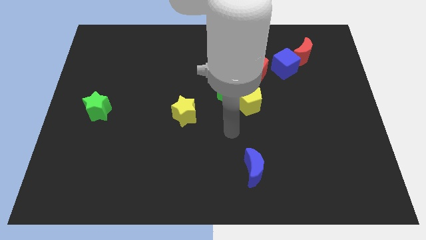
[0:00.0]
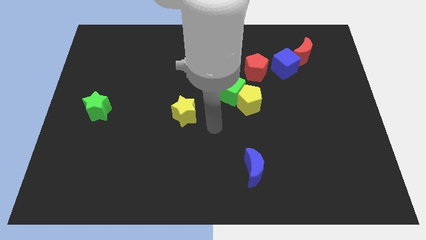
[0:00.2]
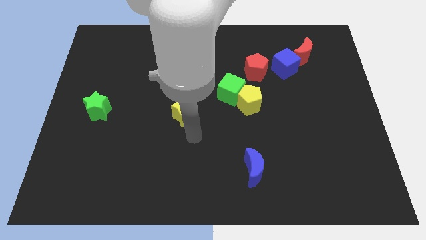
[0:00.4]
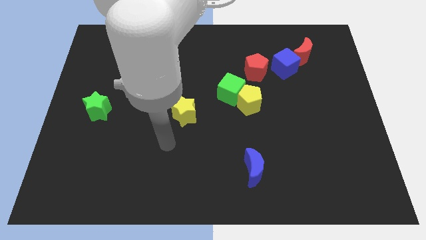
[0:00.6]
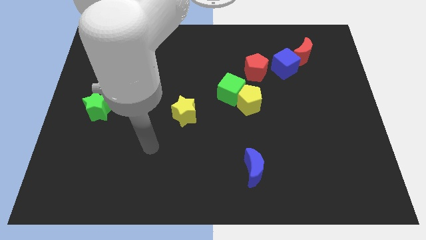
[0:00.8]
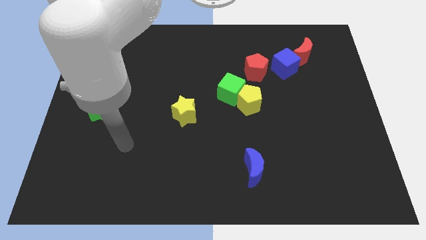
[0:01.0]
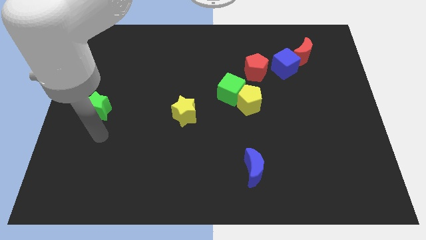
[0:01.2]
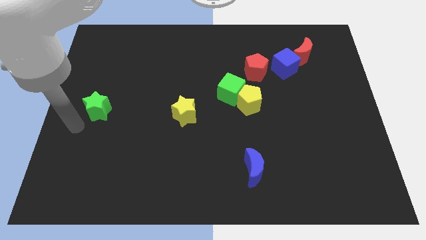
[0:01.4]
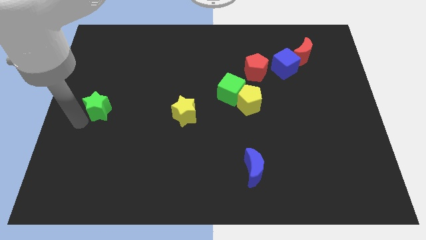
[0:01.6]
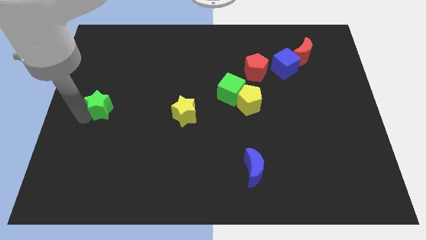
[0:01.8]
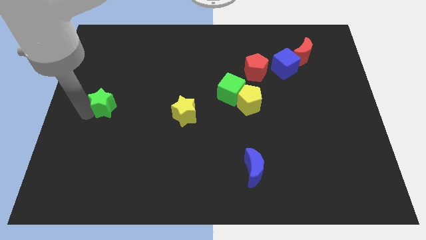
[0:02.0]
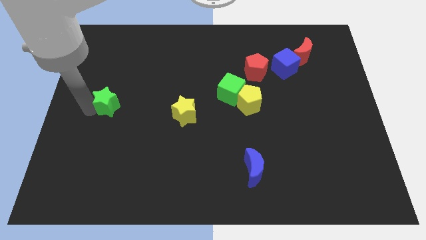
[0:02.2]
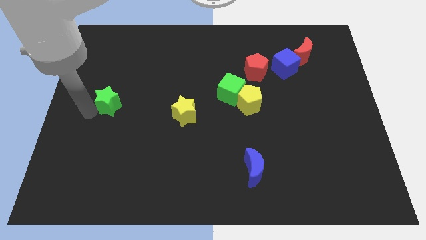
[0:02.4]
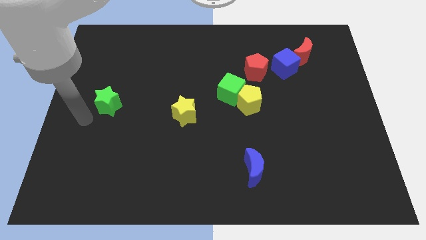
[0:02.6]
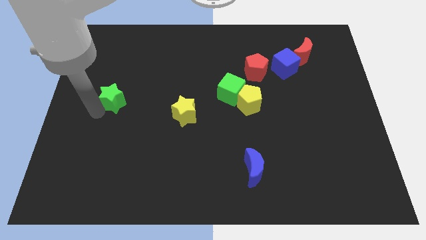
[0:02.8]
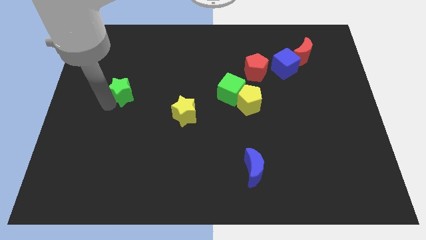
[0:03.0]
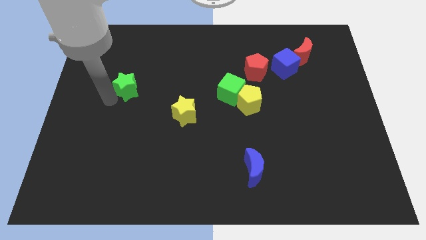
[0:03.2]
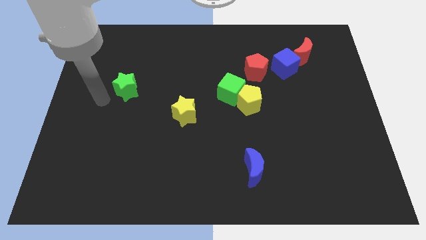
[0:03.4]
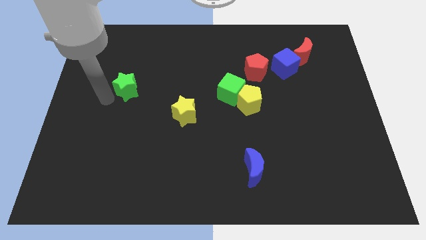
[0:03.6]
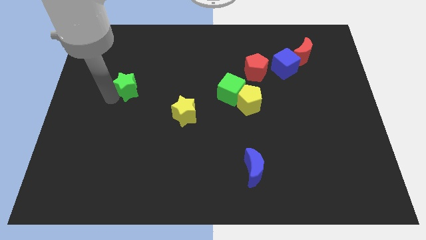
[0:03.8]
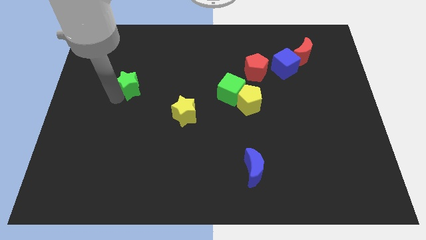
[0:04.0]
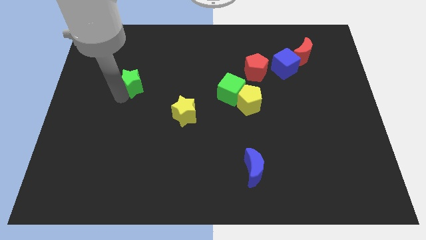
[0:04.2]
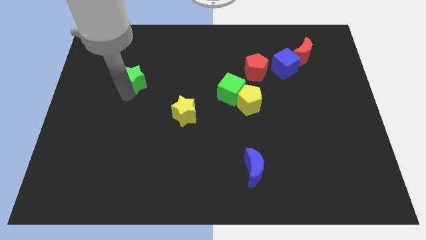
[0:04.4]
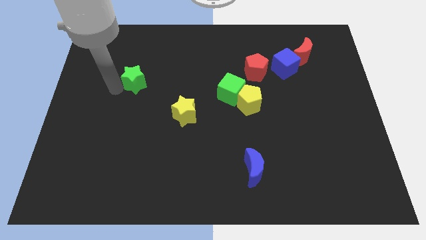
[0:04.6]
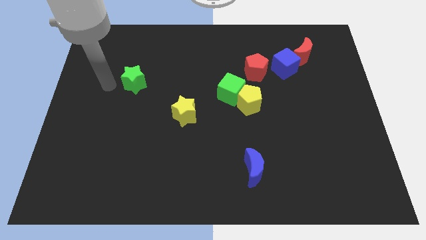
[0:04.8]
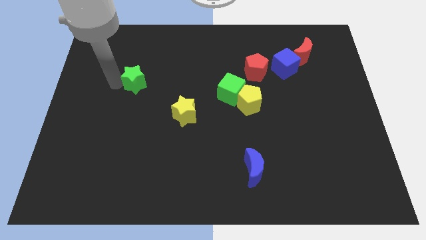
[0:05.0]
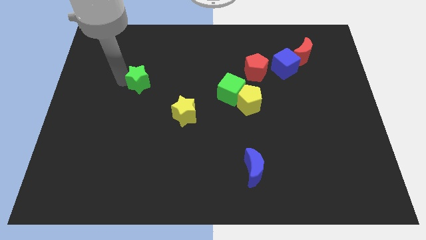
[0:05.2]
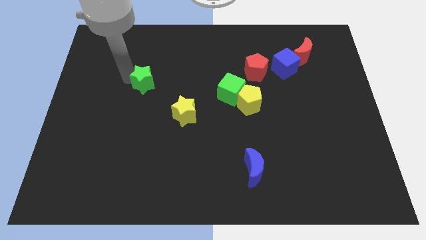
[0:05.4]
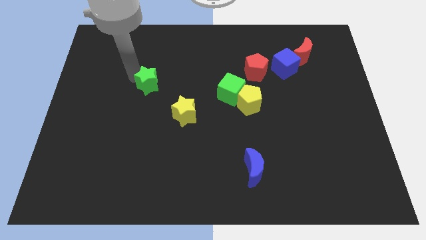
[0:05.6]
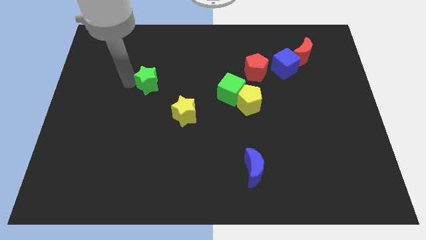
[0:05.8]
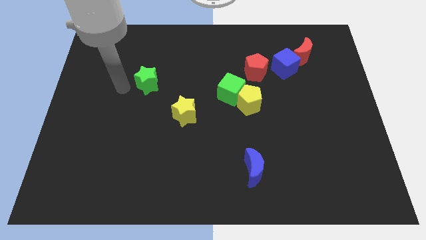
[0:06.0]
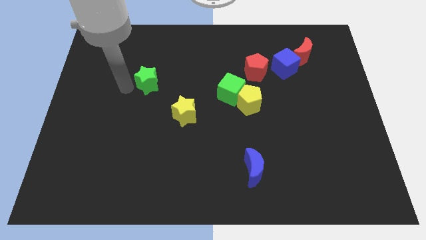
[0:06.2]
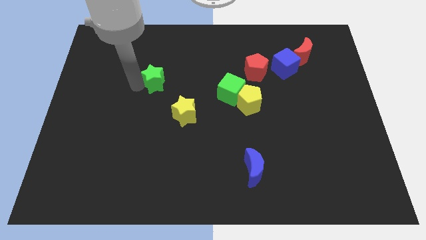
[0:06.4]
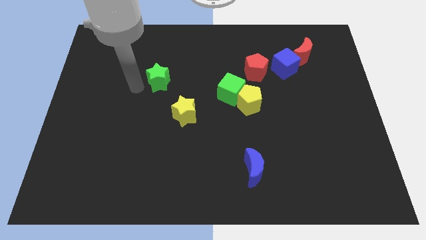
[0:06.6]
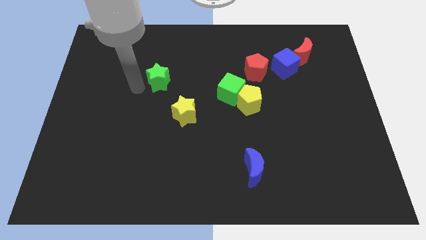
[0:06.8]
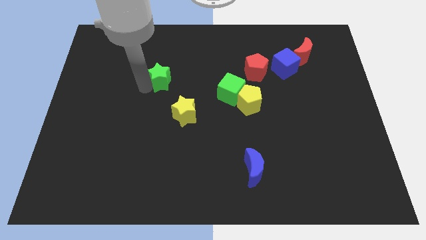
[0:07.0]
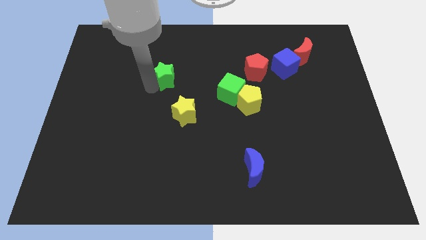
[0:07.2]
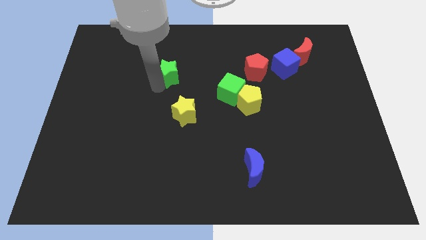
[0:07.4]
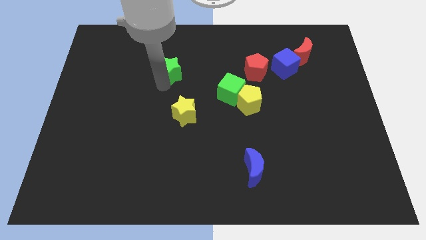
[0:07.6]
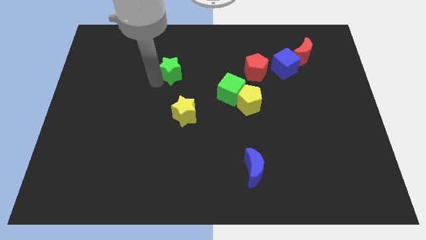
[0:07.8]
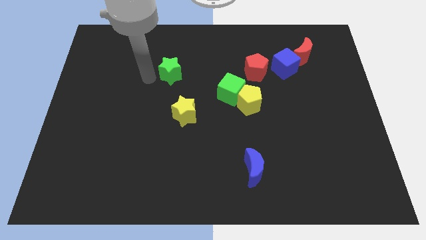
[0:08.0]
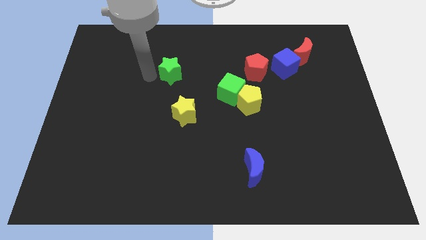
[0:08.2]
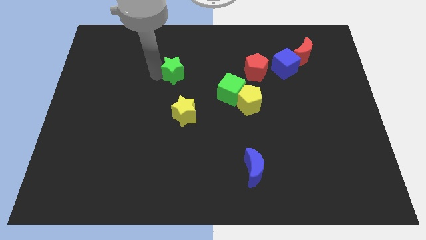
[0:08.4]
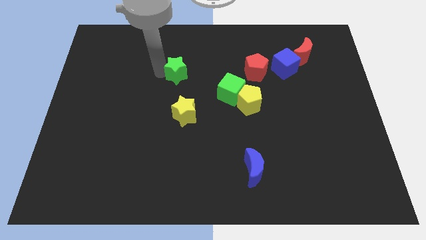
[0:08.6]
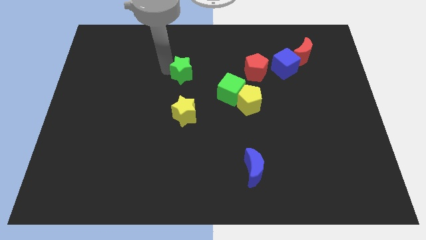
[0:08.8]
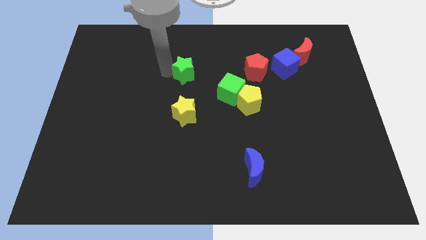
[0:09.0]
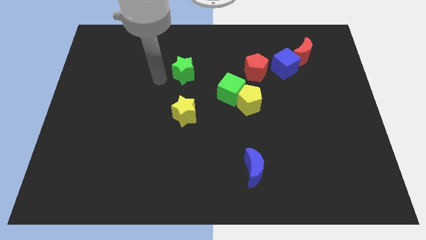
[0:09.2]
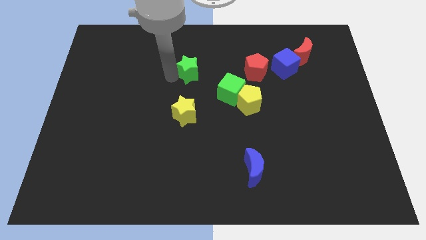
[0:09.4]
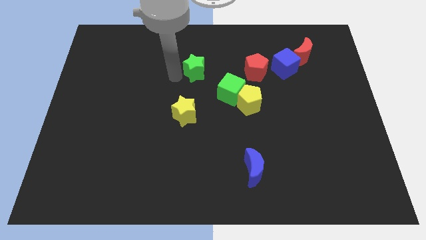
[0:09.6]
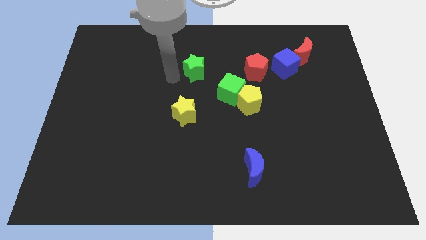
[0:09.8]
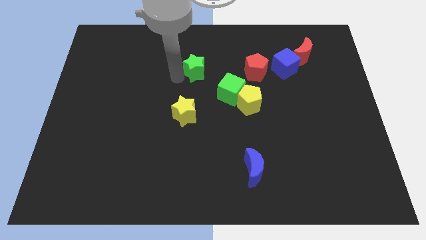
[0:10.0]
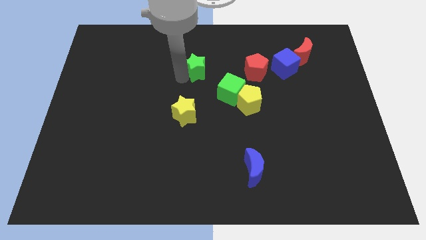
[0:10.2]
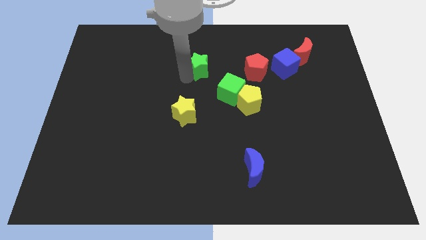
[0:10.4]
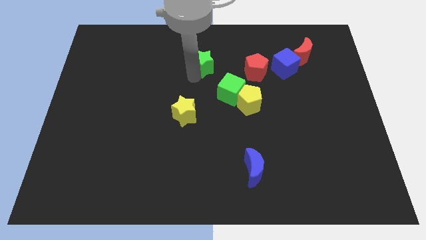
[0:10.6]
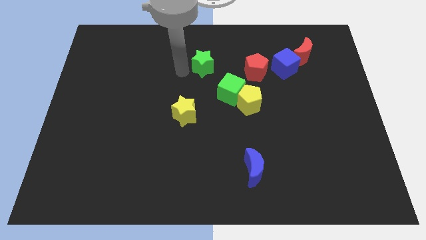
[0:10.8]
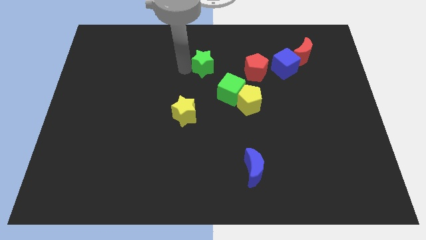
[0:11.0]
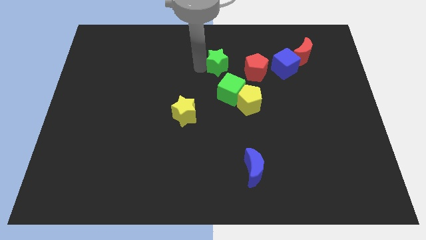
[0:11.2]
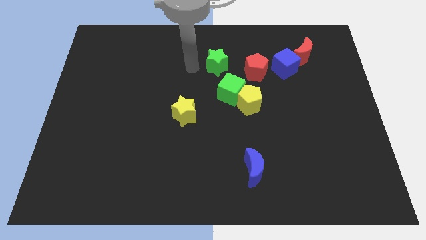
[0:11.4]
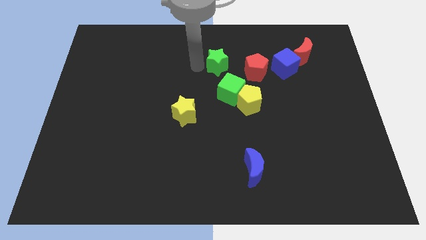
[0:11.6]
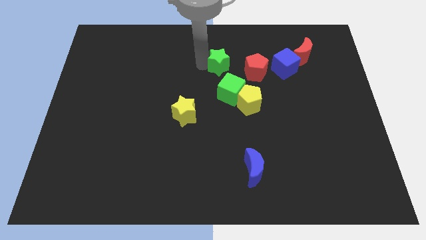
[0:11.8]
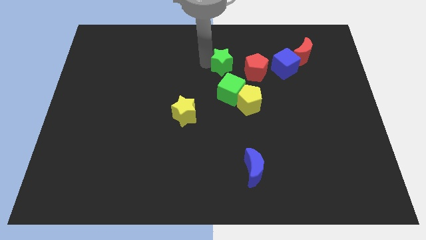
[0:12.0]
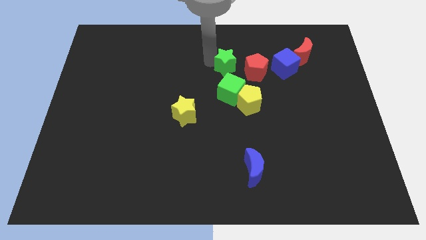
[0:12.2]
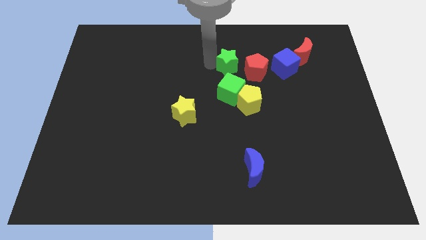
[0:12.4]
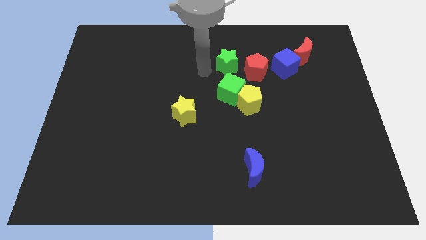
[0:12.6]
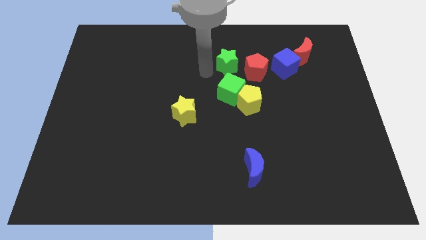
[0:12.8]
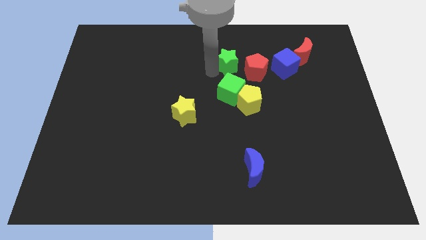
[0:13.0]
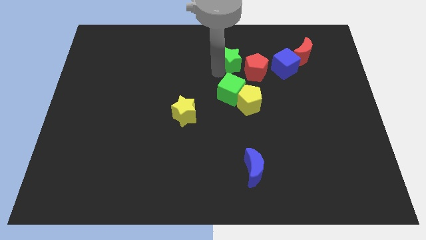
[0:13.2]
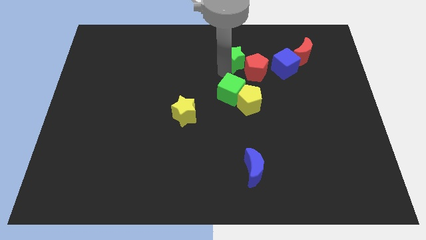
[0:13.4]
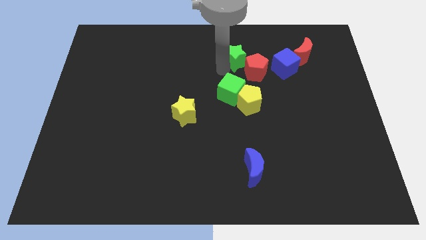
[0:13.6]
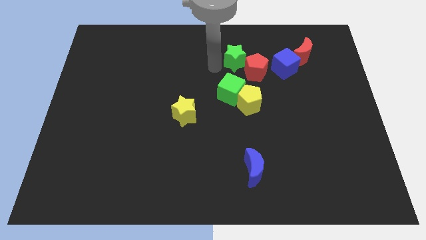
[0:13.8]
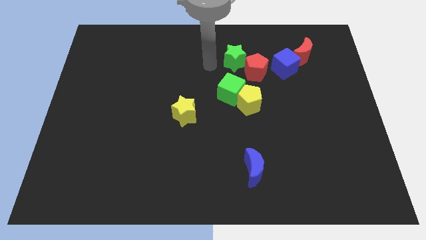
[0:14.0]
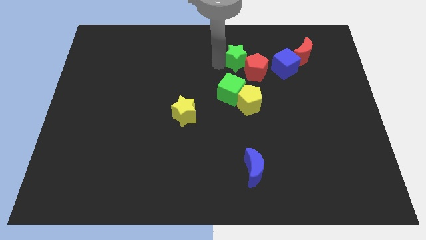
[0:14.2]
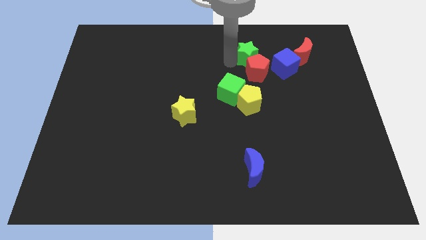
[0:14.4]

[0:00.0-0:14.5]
slide the green star to the left of the red moon
